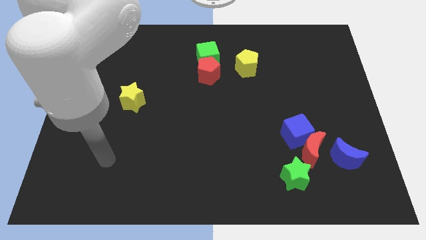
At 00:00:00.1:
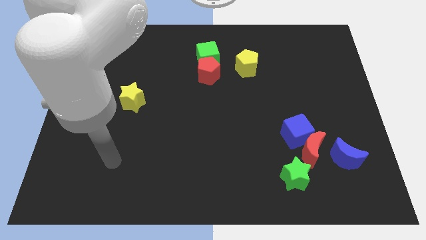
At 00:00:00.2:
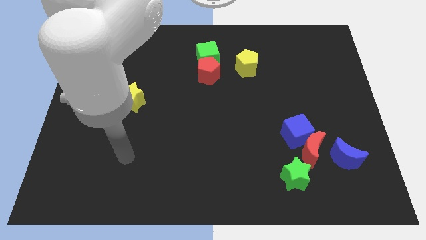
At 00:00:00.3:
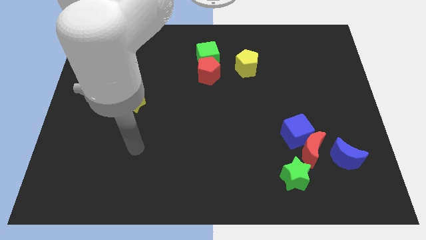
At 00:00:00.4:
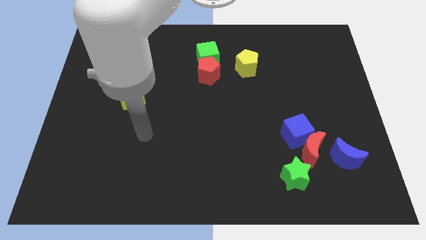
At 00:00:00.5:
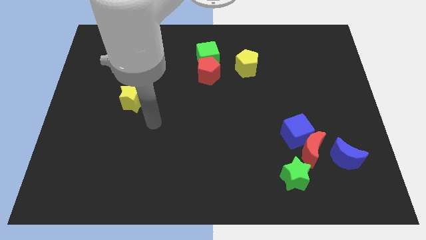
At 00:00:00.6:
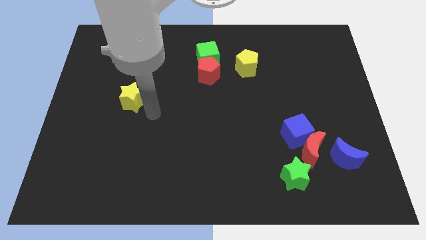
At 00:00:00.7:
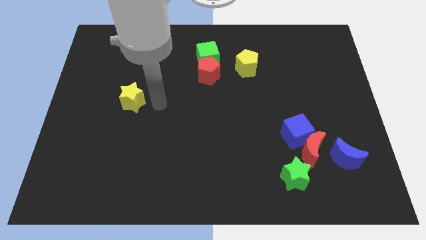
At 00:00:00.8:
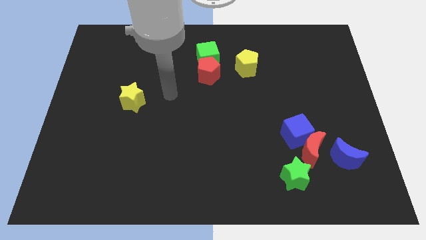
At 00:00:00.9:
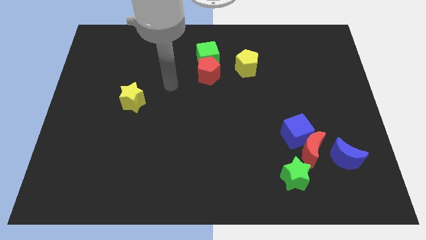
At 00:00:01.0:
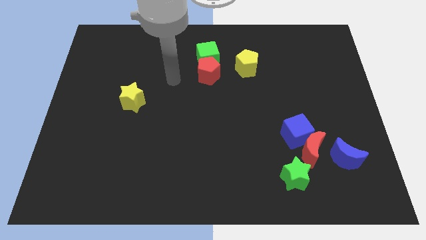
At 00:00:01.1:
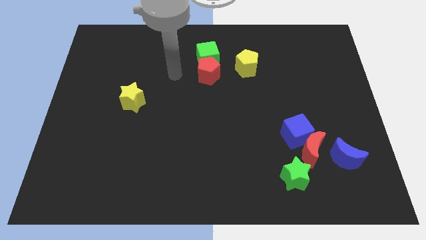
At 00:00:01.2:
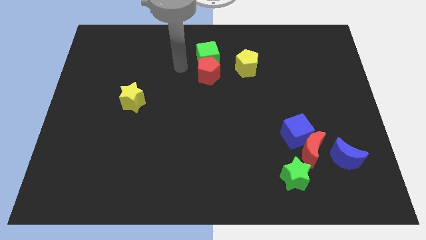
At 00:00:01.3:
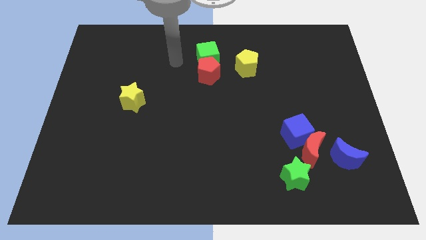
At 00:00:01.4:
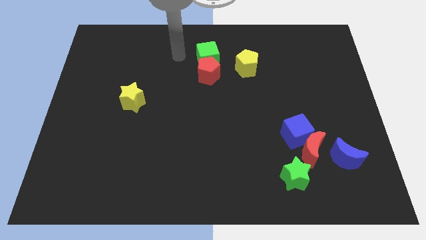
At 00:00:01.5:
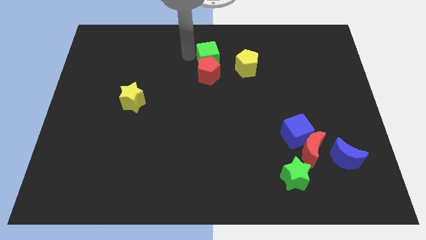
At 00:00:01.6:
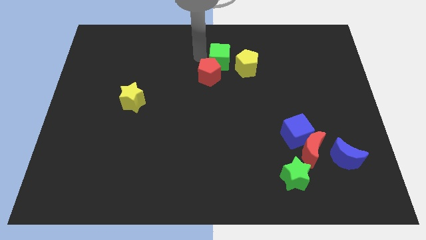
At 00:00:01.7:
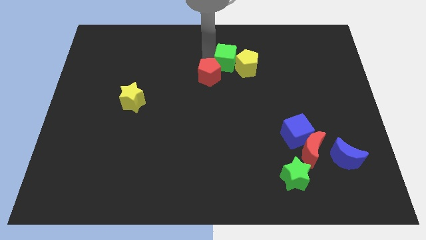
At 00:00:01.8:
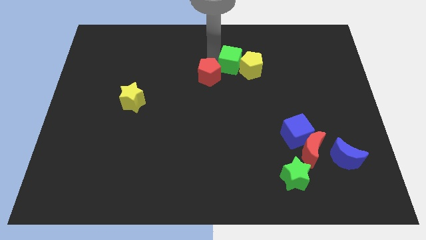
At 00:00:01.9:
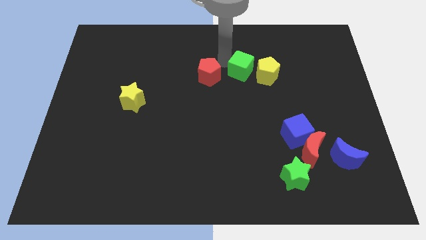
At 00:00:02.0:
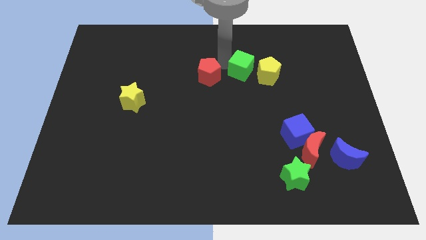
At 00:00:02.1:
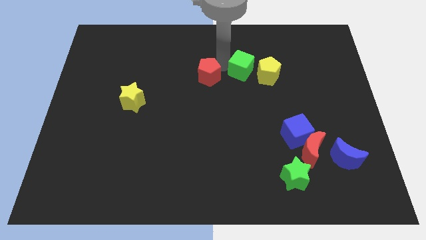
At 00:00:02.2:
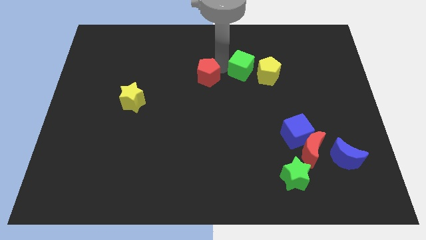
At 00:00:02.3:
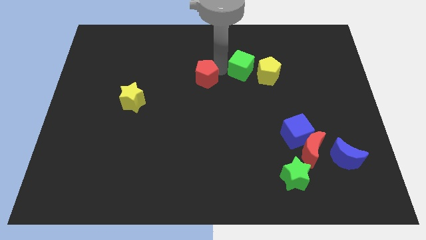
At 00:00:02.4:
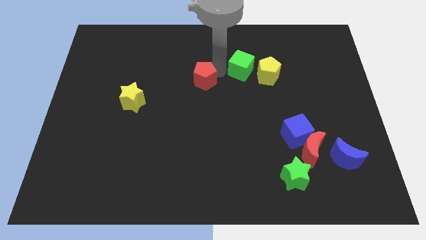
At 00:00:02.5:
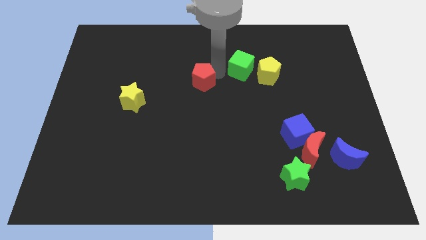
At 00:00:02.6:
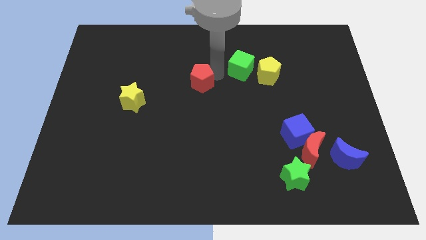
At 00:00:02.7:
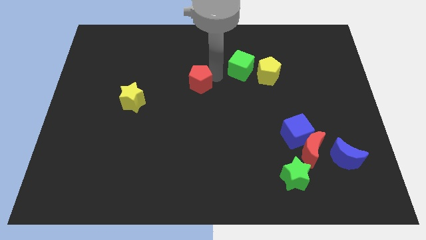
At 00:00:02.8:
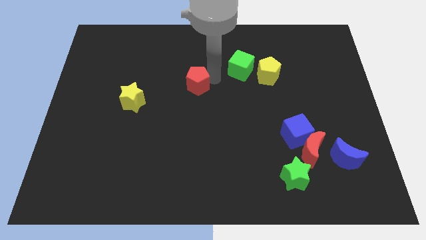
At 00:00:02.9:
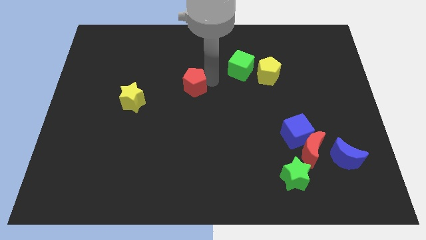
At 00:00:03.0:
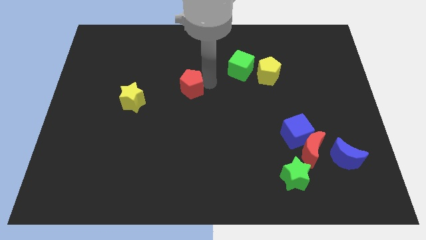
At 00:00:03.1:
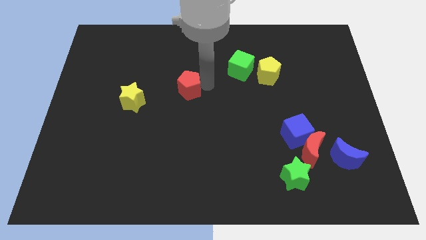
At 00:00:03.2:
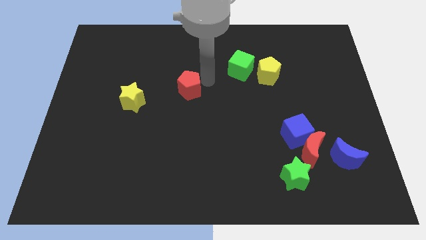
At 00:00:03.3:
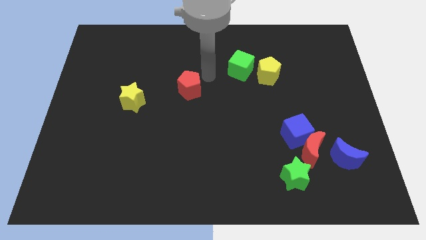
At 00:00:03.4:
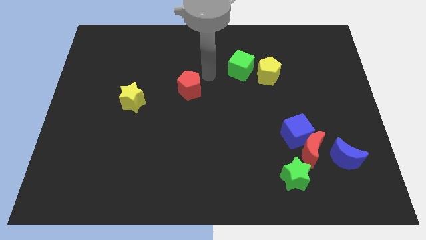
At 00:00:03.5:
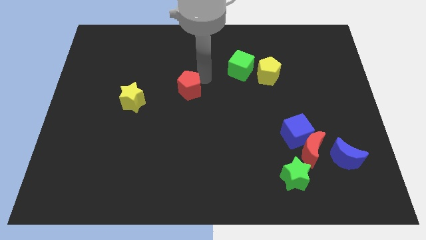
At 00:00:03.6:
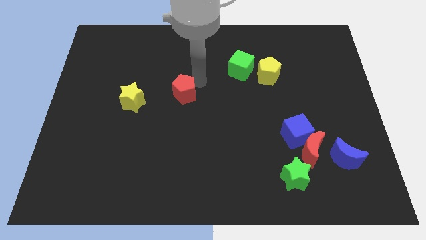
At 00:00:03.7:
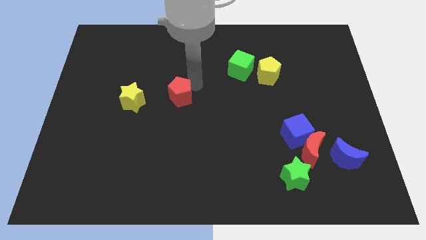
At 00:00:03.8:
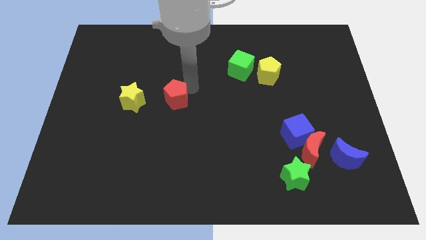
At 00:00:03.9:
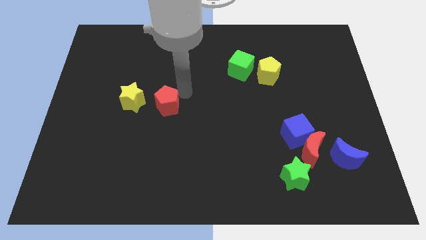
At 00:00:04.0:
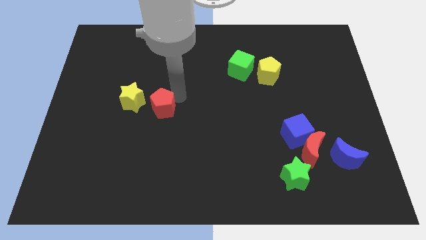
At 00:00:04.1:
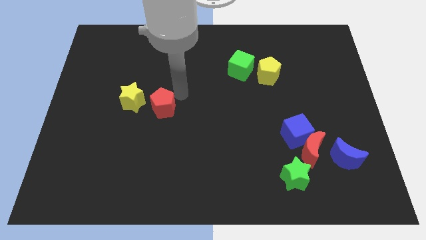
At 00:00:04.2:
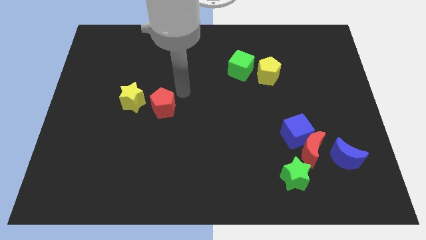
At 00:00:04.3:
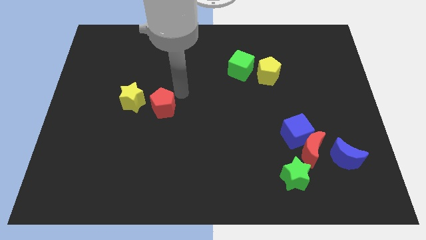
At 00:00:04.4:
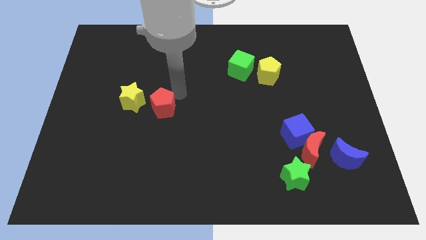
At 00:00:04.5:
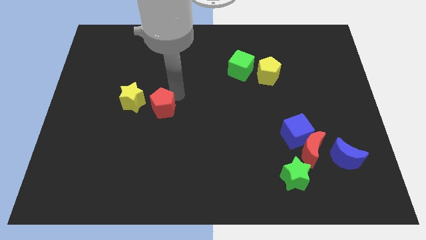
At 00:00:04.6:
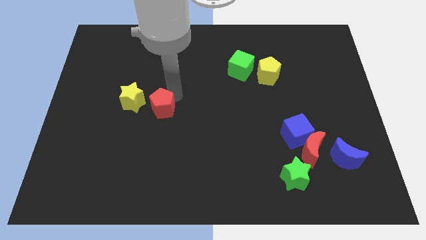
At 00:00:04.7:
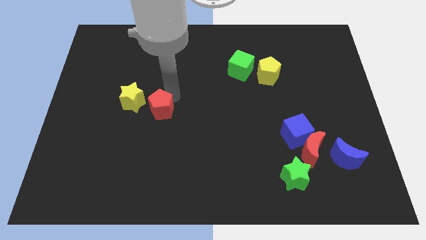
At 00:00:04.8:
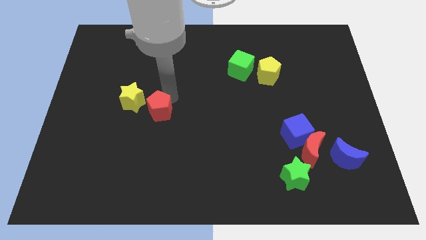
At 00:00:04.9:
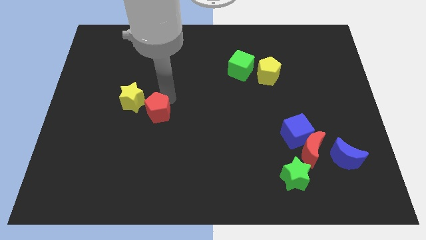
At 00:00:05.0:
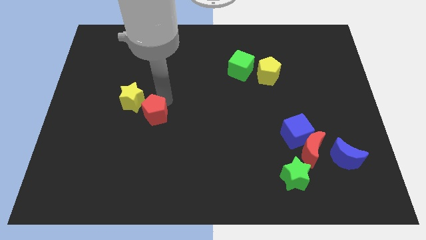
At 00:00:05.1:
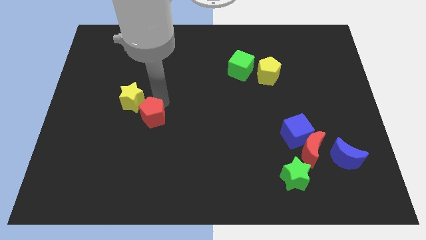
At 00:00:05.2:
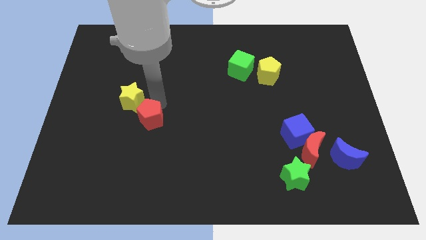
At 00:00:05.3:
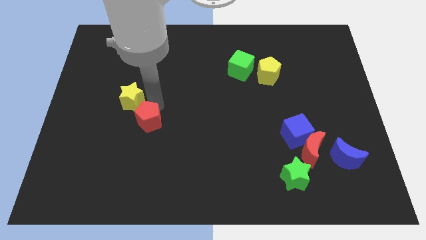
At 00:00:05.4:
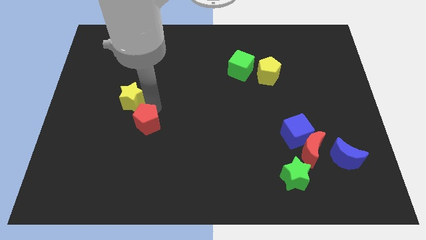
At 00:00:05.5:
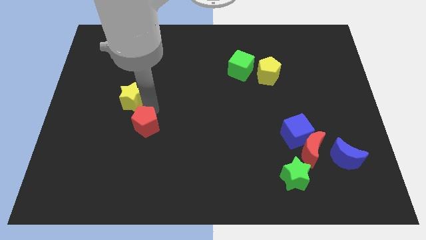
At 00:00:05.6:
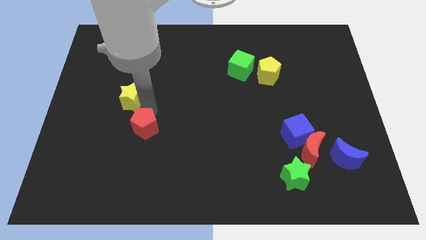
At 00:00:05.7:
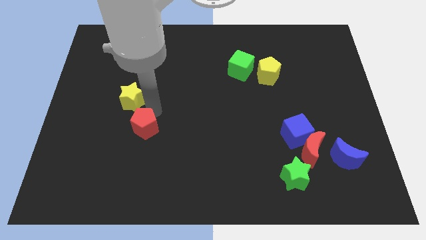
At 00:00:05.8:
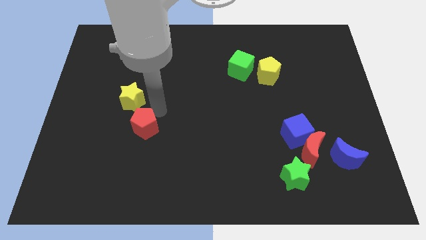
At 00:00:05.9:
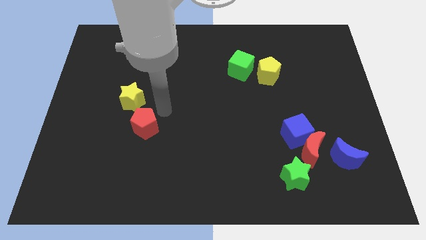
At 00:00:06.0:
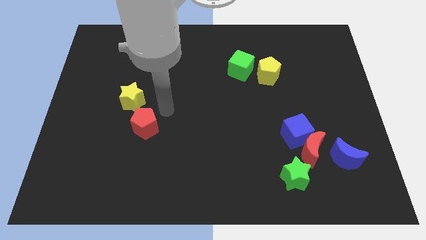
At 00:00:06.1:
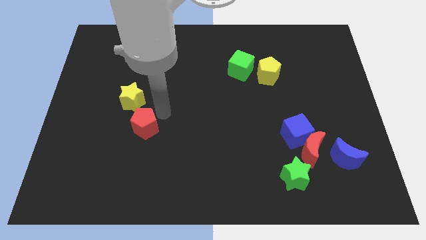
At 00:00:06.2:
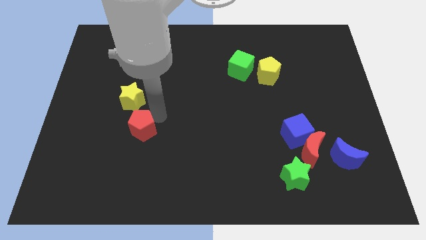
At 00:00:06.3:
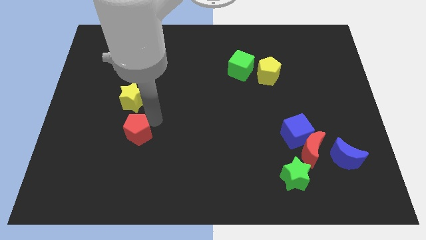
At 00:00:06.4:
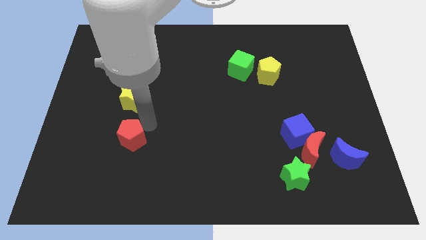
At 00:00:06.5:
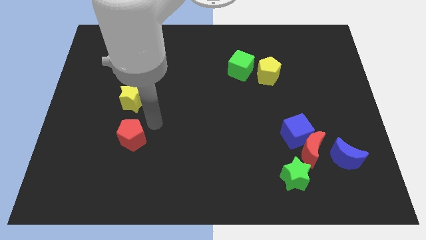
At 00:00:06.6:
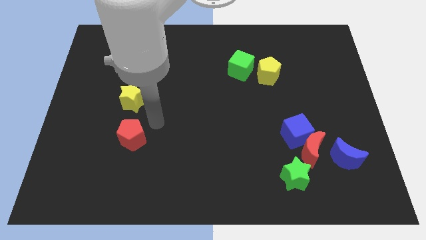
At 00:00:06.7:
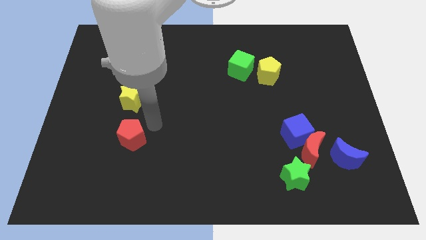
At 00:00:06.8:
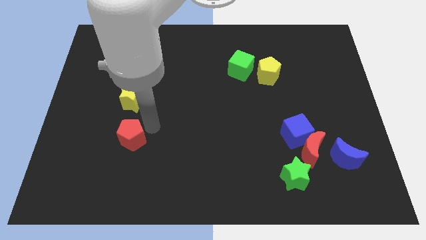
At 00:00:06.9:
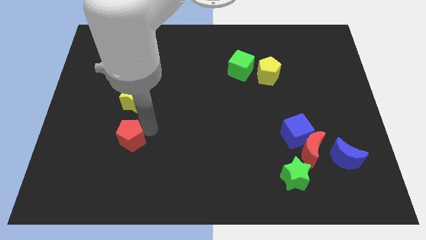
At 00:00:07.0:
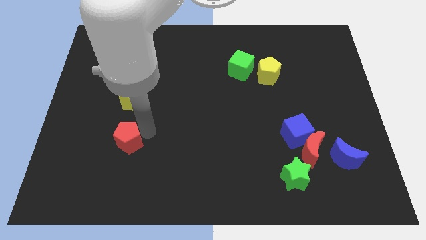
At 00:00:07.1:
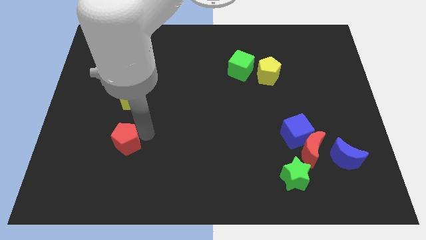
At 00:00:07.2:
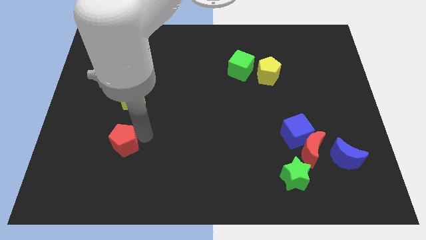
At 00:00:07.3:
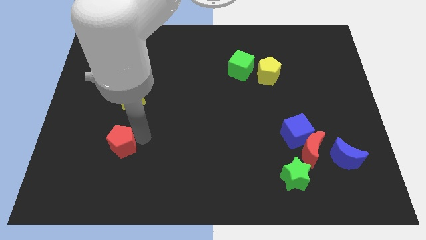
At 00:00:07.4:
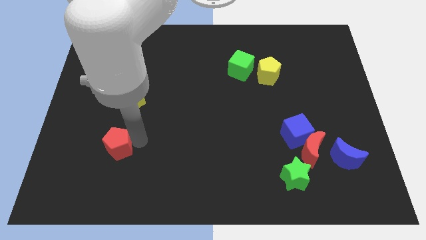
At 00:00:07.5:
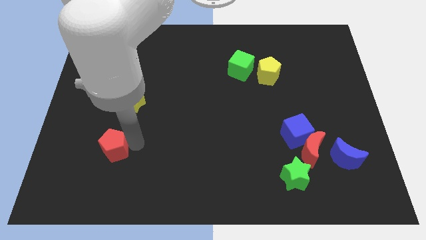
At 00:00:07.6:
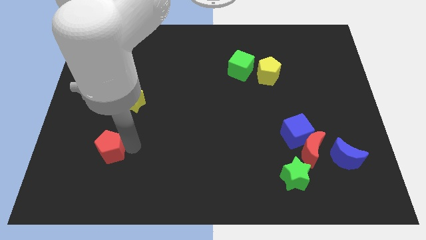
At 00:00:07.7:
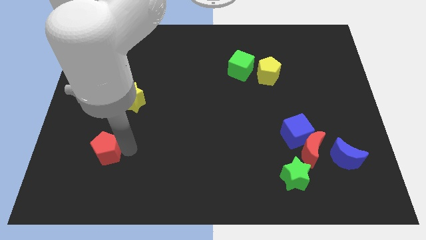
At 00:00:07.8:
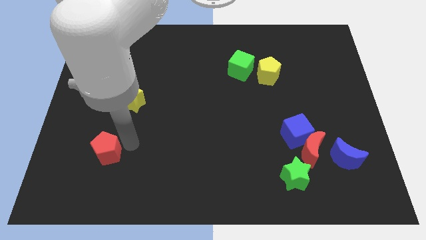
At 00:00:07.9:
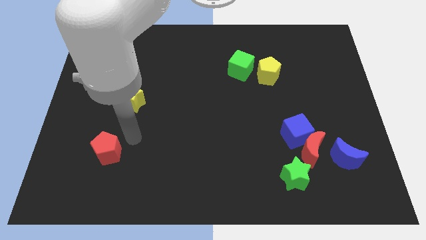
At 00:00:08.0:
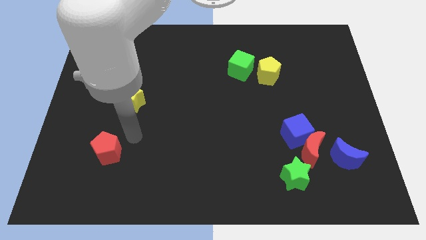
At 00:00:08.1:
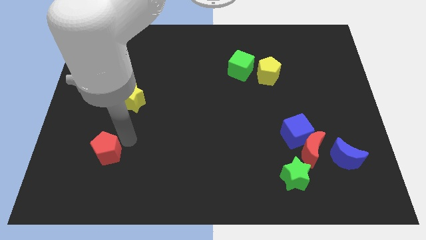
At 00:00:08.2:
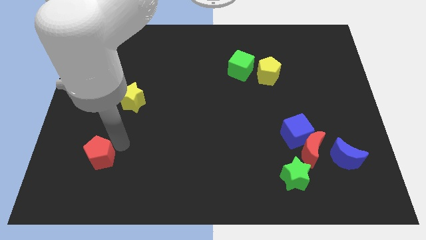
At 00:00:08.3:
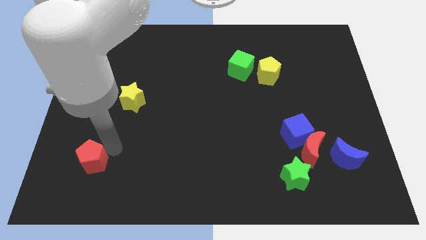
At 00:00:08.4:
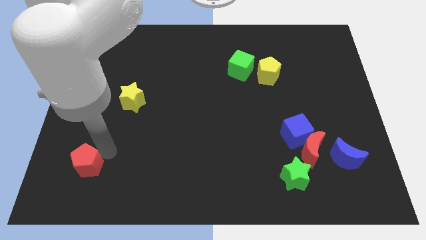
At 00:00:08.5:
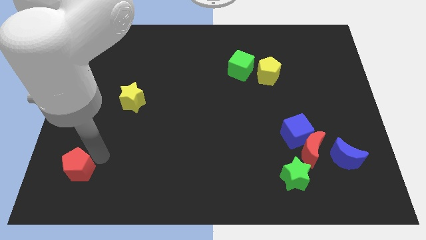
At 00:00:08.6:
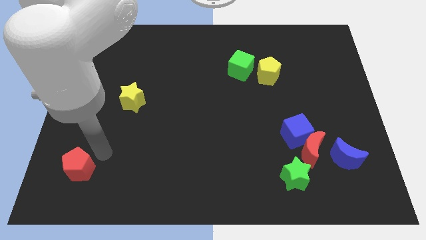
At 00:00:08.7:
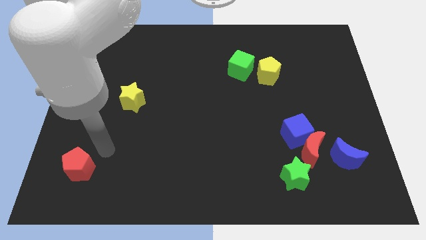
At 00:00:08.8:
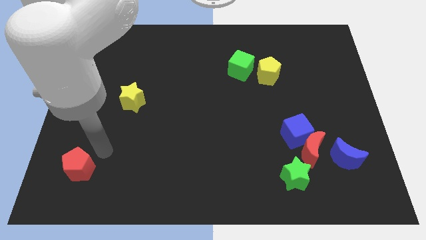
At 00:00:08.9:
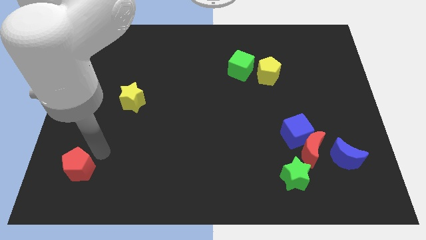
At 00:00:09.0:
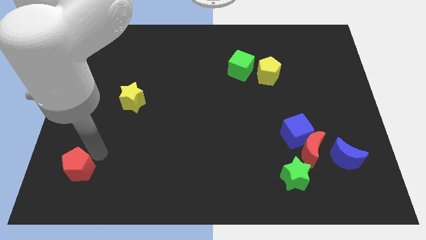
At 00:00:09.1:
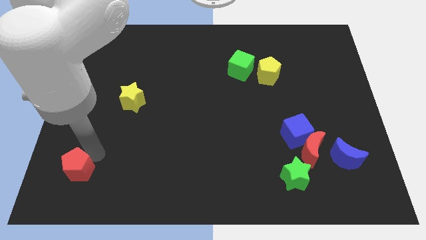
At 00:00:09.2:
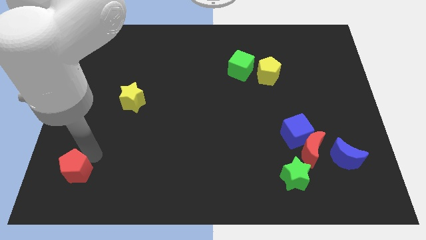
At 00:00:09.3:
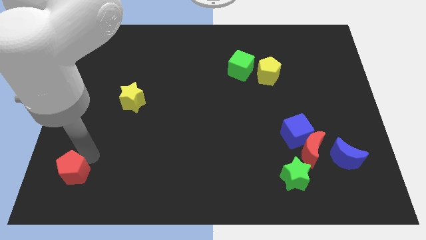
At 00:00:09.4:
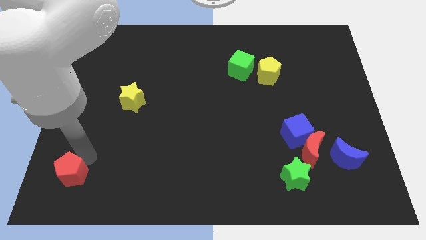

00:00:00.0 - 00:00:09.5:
put the red pentagon to the lower left corner
